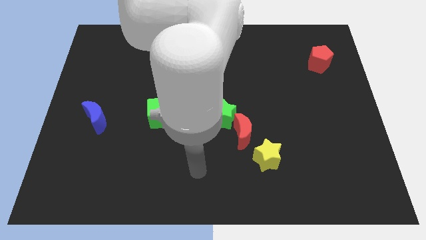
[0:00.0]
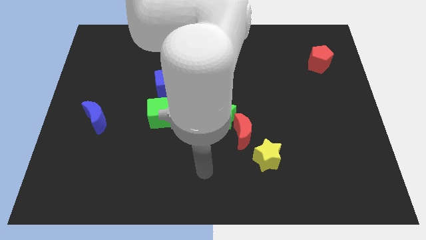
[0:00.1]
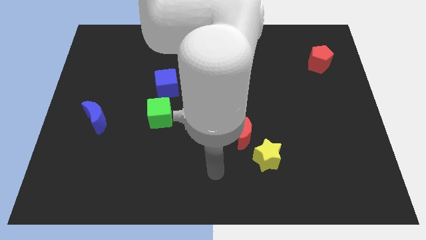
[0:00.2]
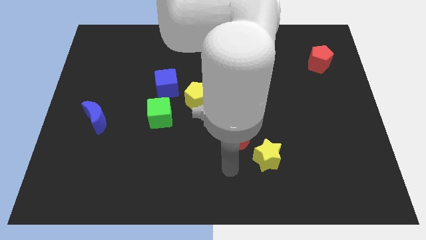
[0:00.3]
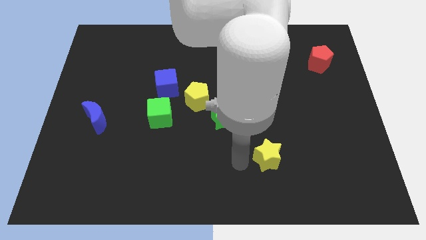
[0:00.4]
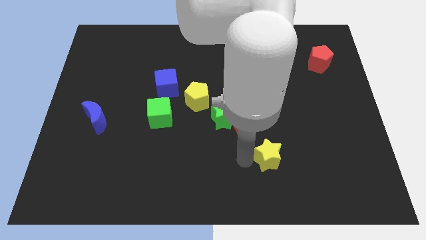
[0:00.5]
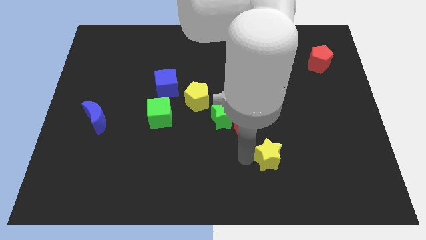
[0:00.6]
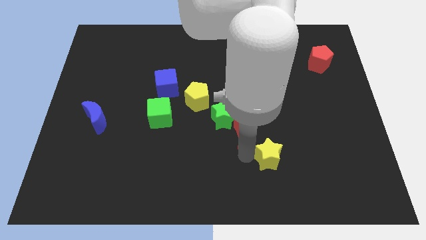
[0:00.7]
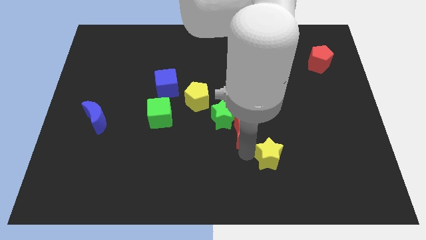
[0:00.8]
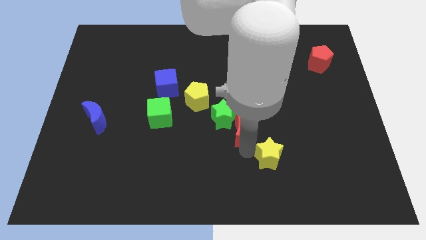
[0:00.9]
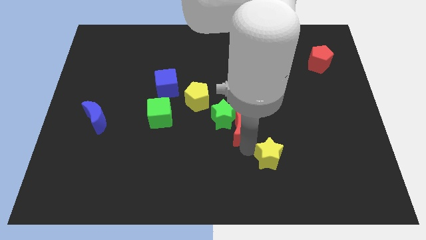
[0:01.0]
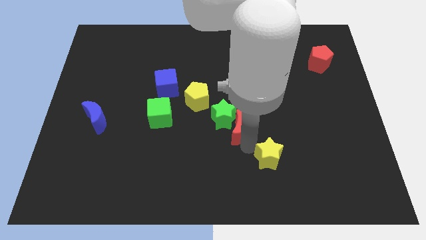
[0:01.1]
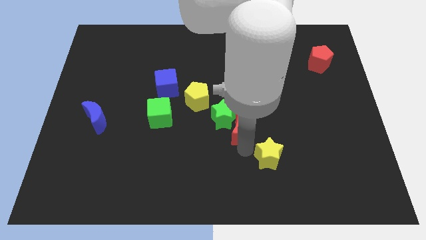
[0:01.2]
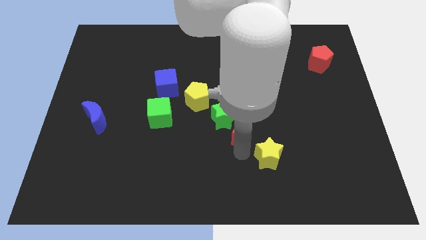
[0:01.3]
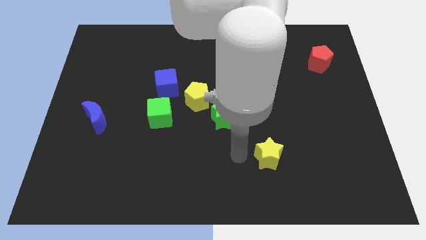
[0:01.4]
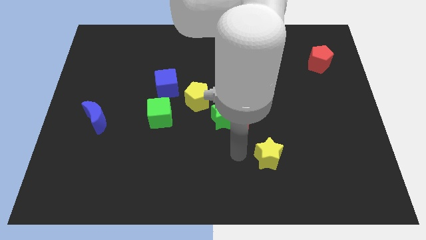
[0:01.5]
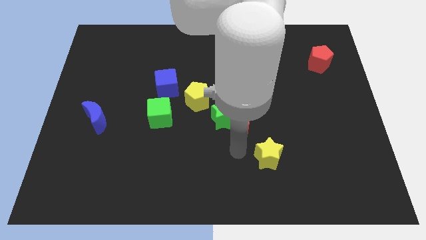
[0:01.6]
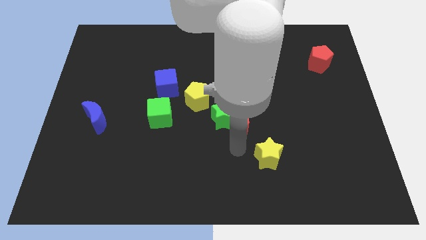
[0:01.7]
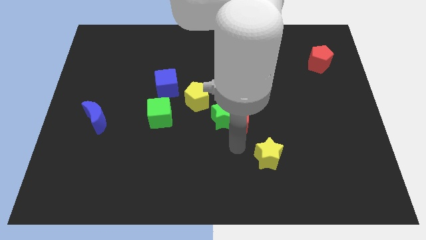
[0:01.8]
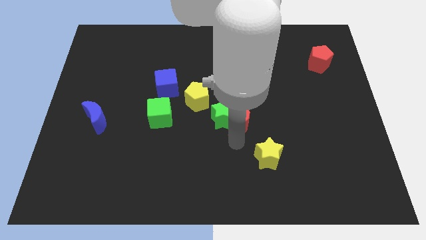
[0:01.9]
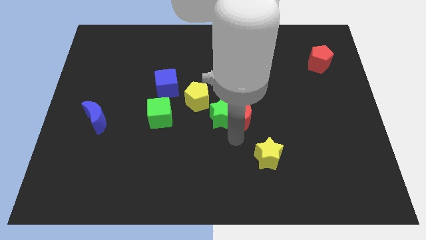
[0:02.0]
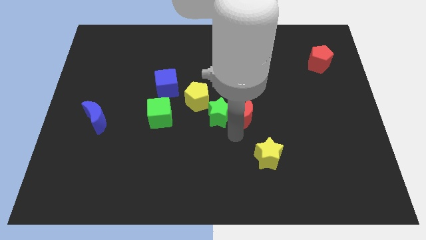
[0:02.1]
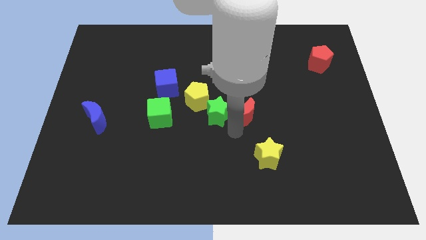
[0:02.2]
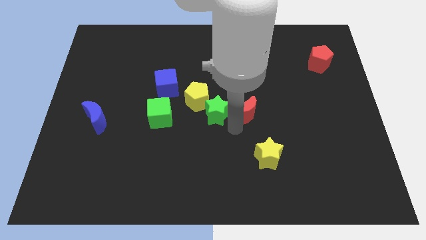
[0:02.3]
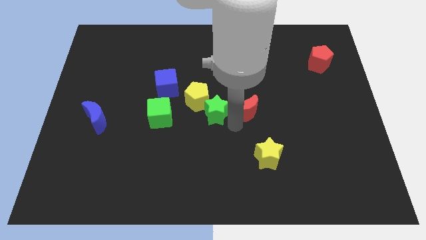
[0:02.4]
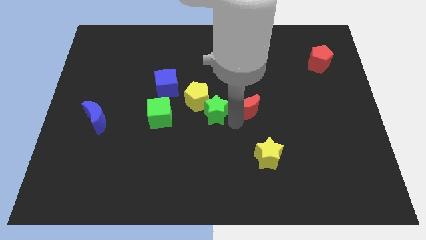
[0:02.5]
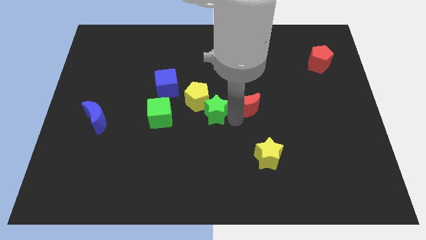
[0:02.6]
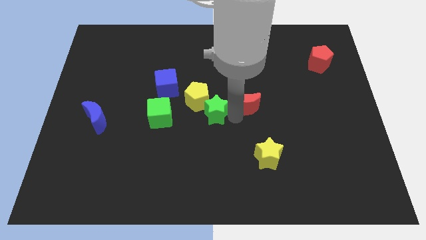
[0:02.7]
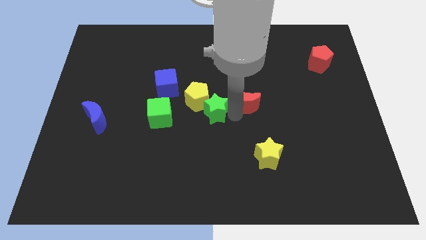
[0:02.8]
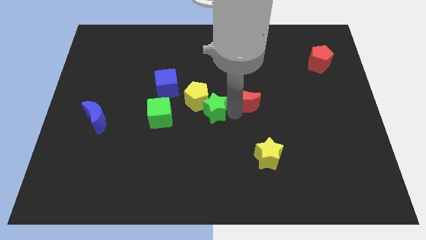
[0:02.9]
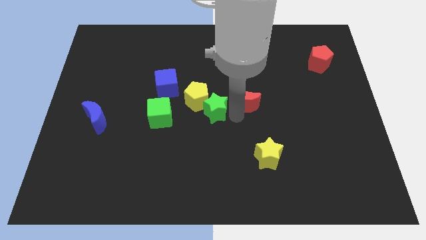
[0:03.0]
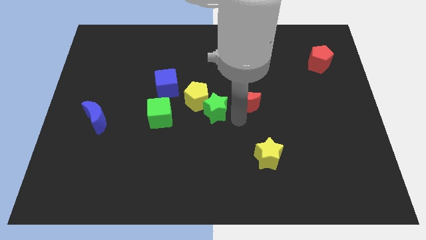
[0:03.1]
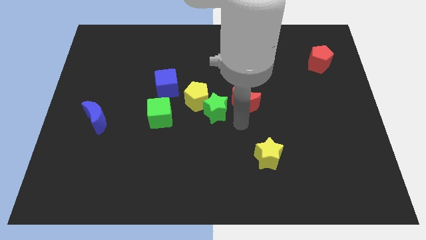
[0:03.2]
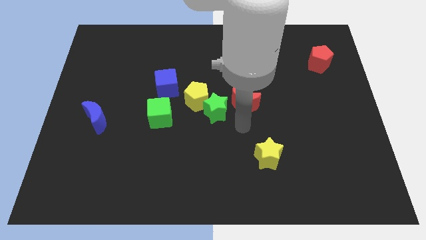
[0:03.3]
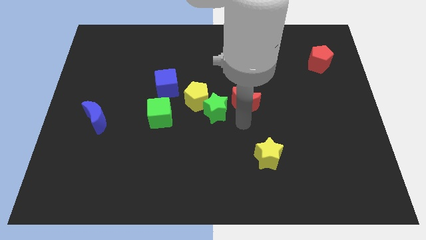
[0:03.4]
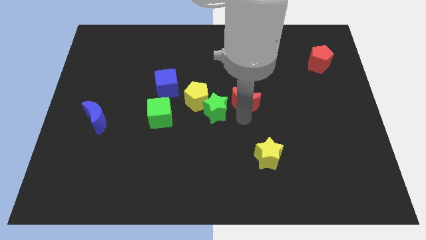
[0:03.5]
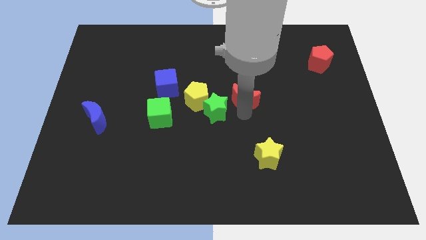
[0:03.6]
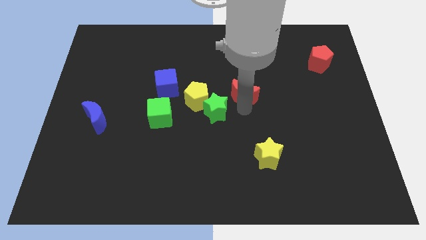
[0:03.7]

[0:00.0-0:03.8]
separate the red moon from the green star and yellow star

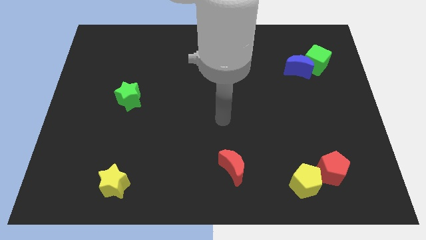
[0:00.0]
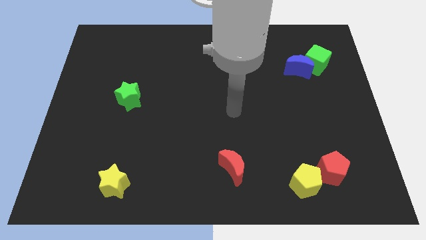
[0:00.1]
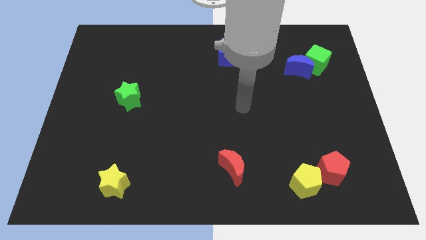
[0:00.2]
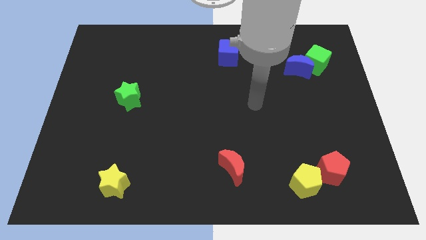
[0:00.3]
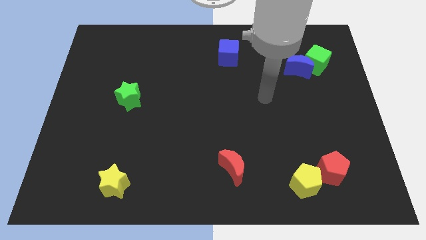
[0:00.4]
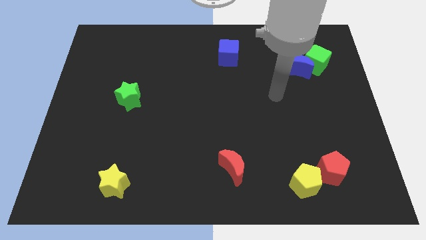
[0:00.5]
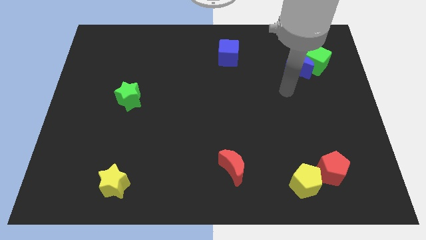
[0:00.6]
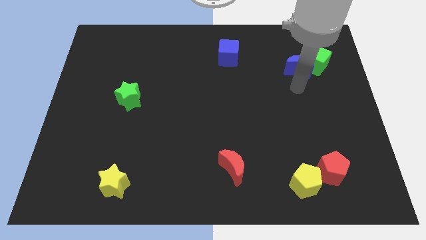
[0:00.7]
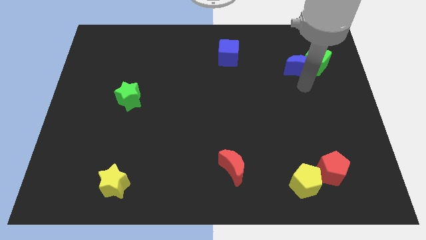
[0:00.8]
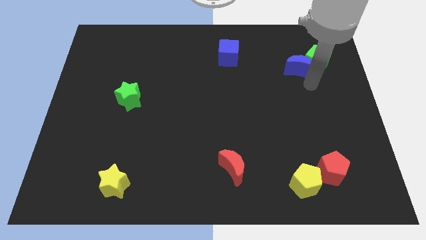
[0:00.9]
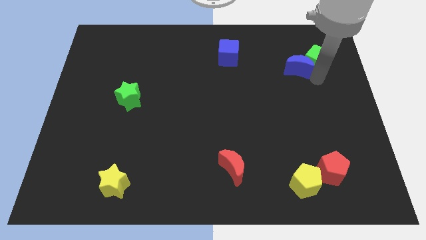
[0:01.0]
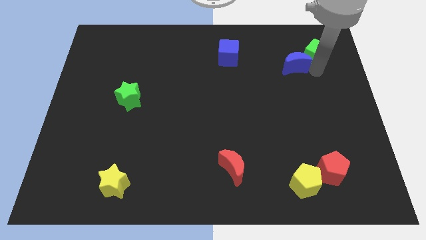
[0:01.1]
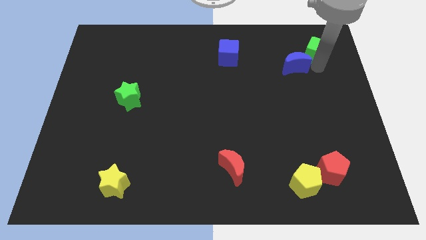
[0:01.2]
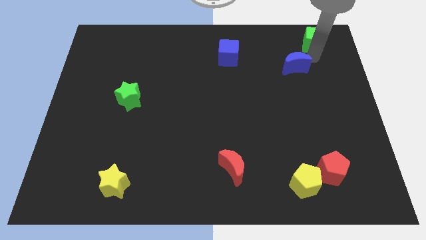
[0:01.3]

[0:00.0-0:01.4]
separate the blue moon from the green cube

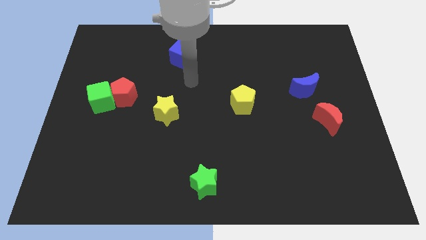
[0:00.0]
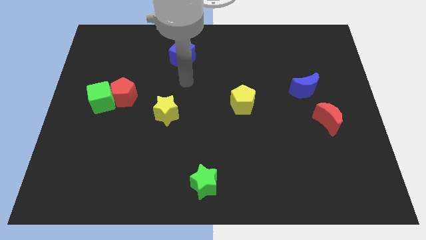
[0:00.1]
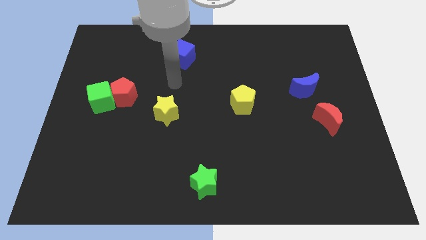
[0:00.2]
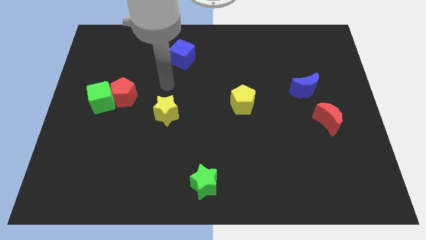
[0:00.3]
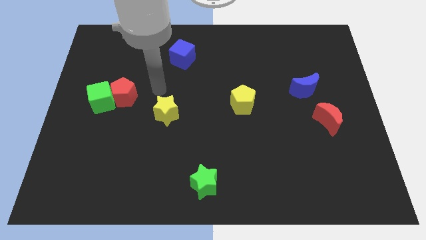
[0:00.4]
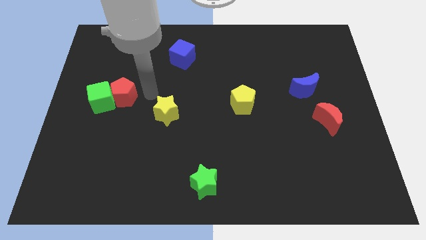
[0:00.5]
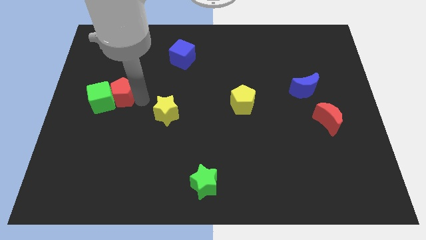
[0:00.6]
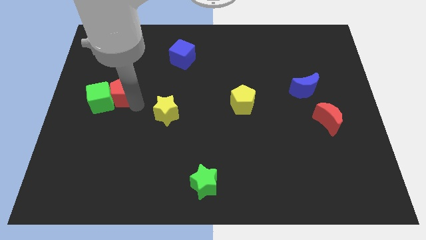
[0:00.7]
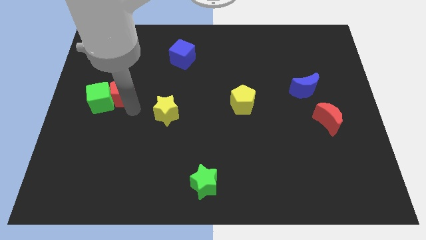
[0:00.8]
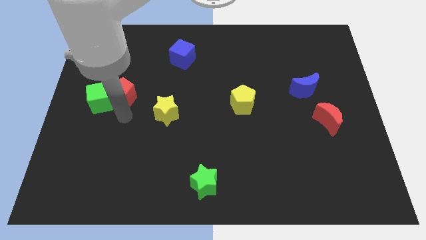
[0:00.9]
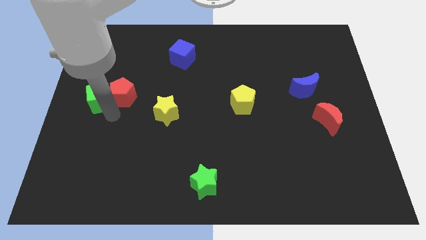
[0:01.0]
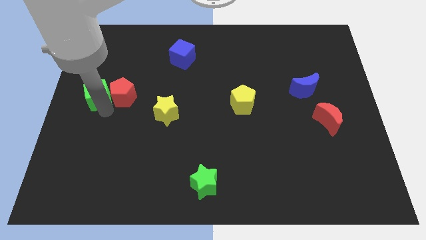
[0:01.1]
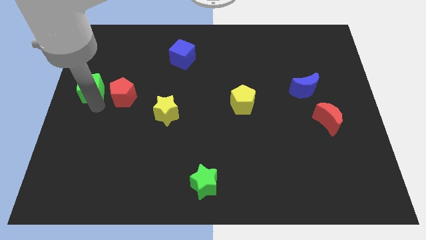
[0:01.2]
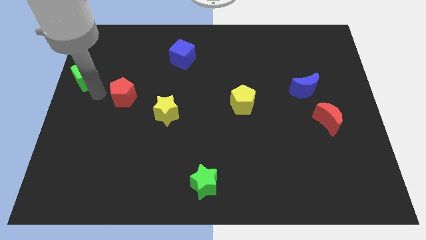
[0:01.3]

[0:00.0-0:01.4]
pull the red pentagon apart from the green cube

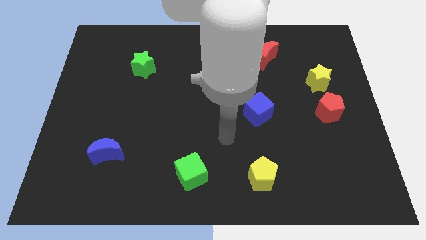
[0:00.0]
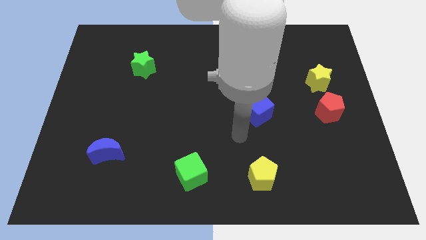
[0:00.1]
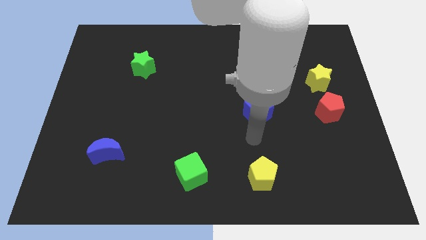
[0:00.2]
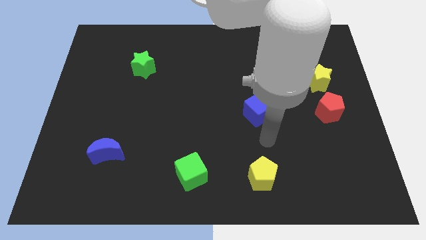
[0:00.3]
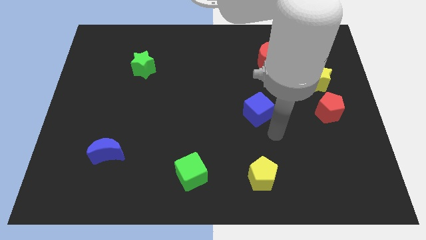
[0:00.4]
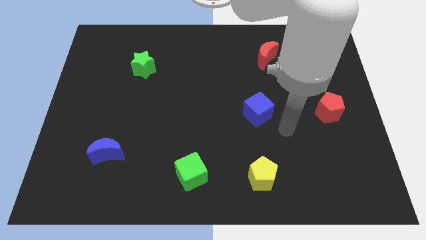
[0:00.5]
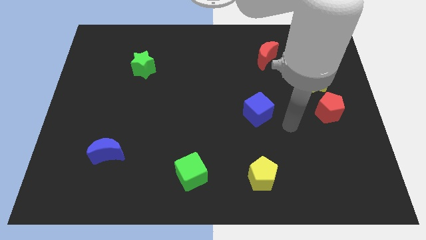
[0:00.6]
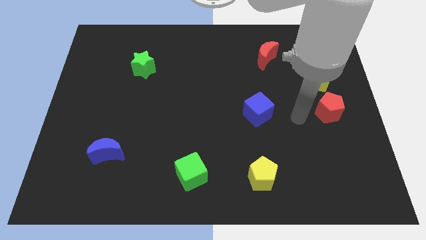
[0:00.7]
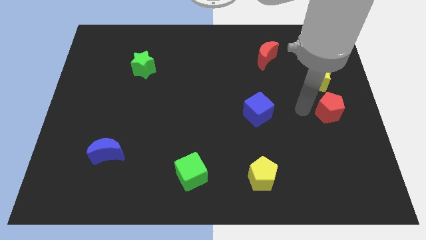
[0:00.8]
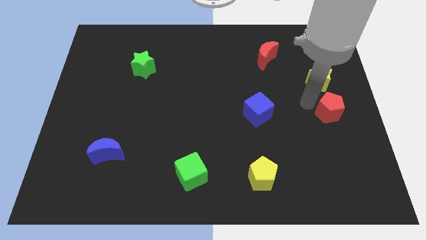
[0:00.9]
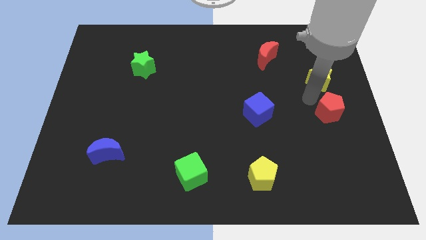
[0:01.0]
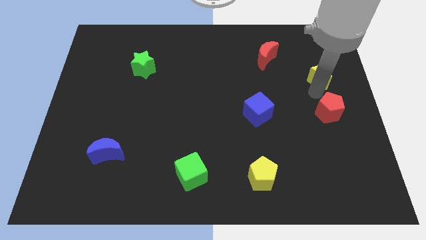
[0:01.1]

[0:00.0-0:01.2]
pull the red pentagon apart from the yellow star

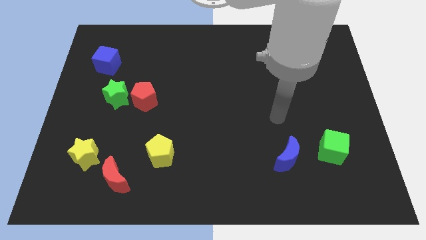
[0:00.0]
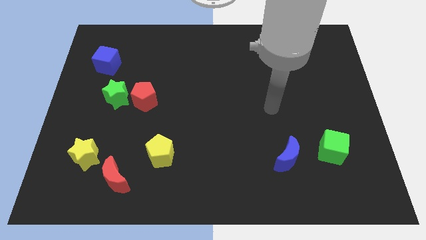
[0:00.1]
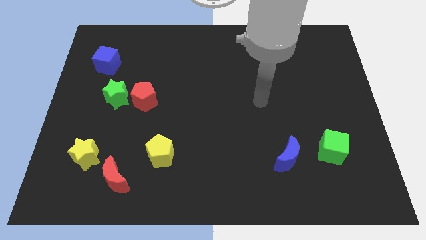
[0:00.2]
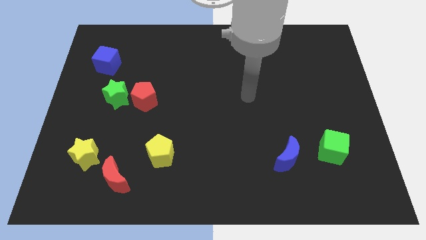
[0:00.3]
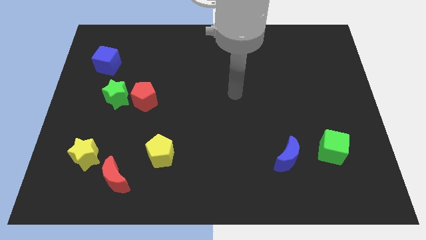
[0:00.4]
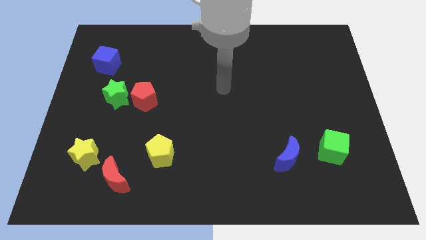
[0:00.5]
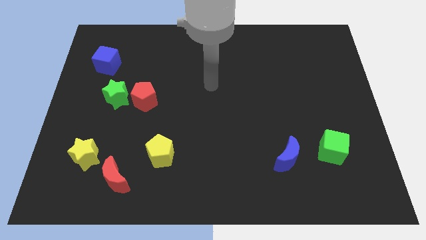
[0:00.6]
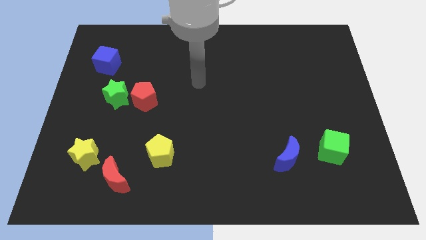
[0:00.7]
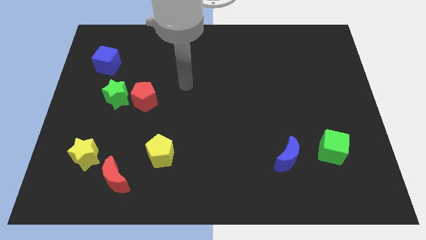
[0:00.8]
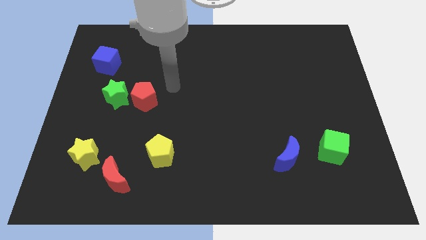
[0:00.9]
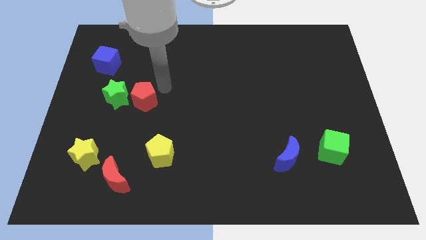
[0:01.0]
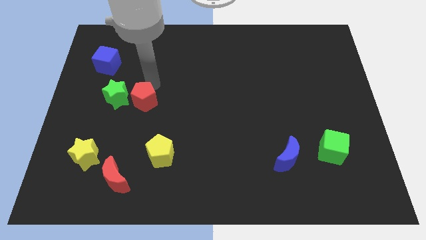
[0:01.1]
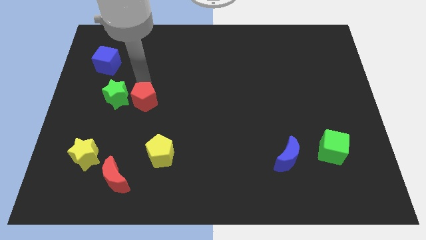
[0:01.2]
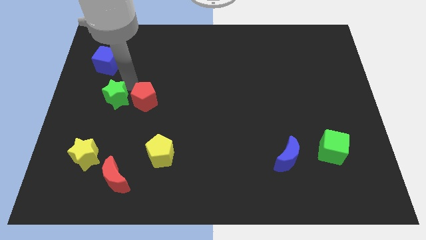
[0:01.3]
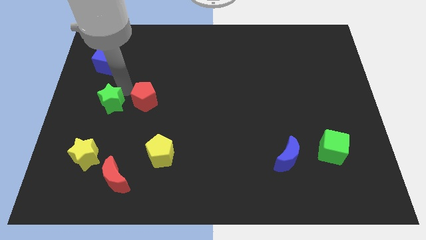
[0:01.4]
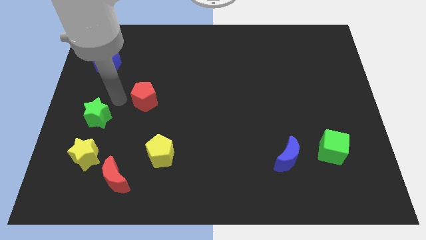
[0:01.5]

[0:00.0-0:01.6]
separate the red pentagon from the green star
